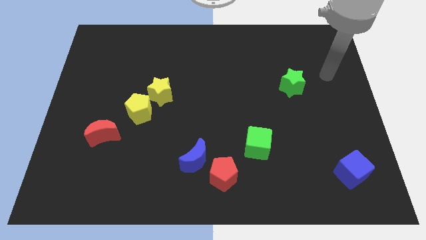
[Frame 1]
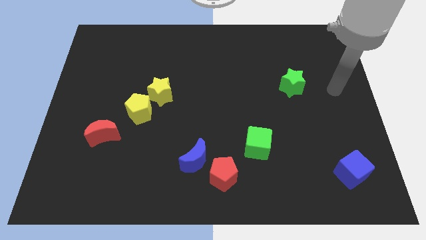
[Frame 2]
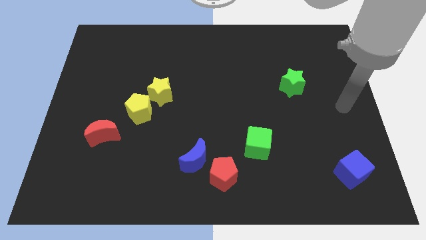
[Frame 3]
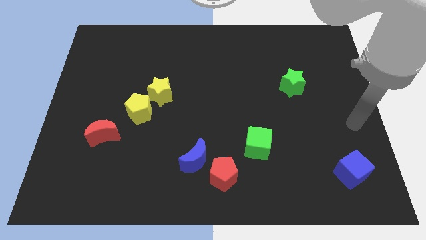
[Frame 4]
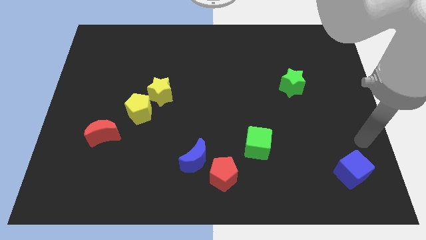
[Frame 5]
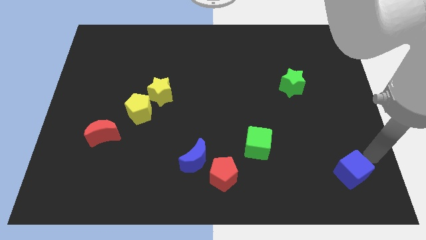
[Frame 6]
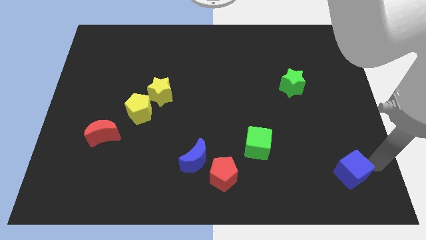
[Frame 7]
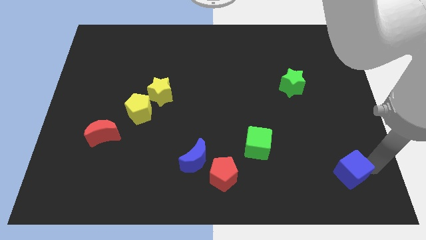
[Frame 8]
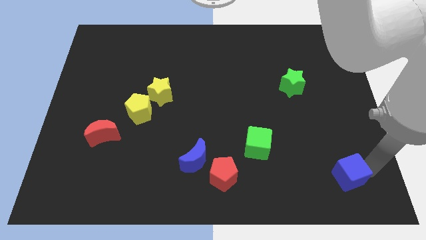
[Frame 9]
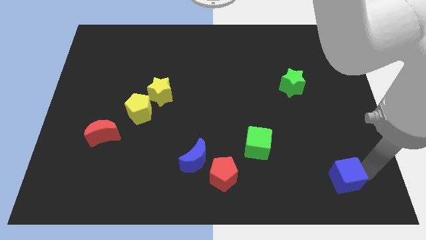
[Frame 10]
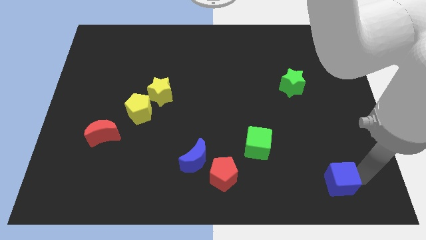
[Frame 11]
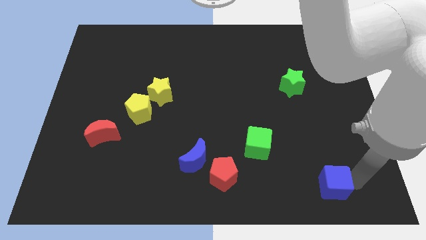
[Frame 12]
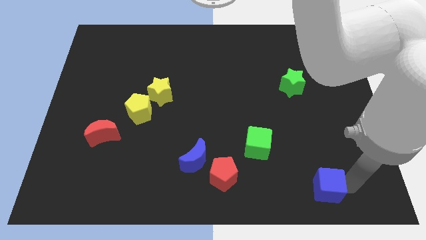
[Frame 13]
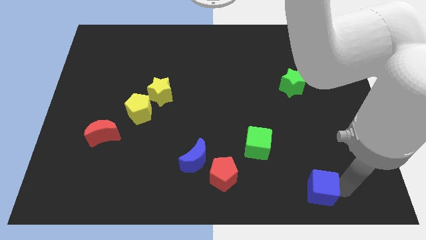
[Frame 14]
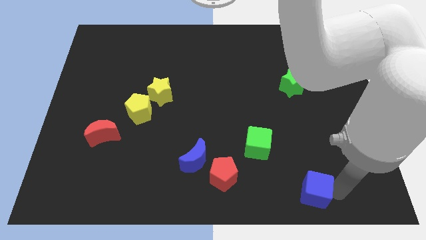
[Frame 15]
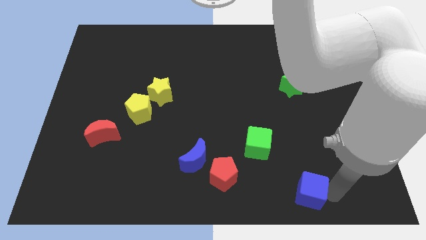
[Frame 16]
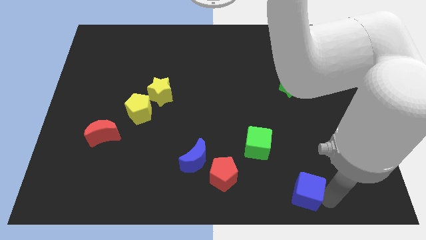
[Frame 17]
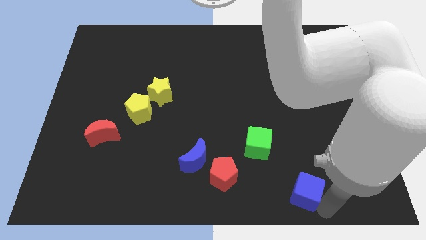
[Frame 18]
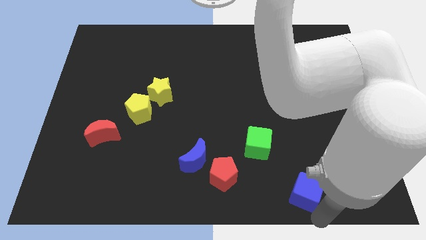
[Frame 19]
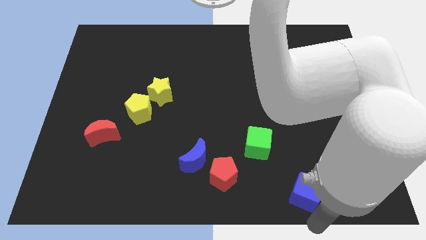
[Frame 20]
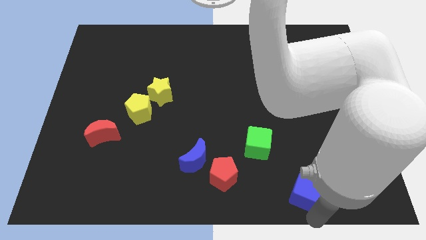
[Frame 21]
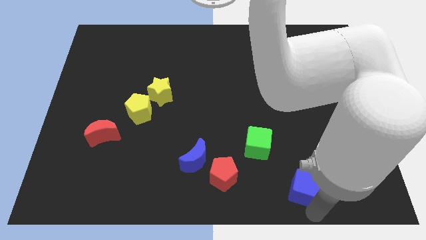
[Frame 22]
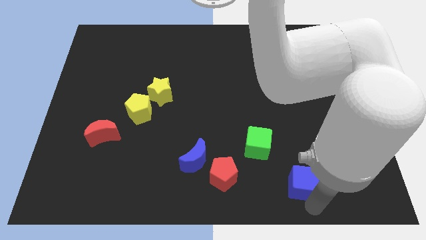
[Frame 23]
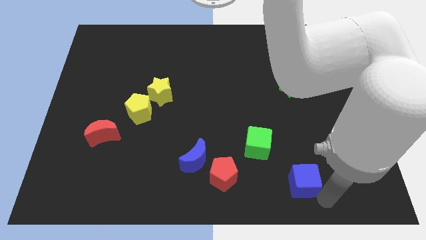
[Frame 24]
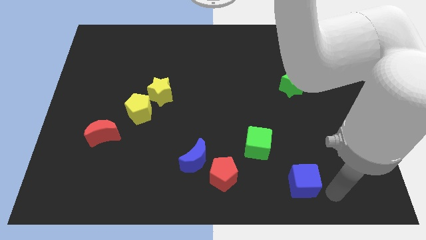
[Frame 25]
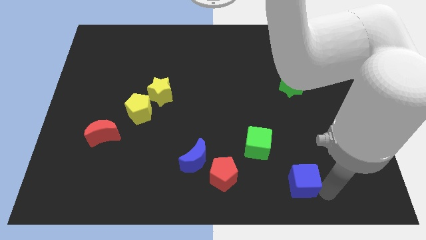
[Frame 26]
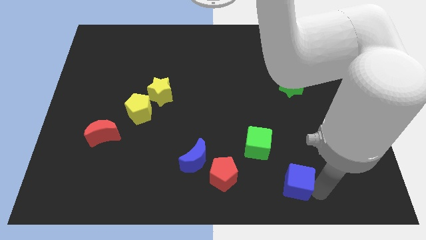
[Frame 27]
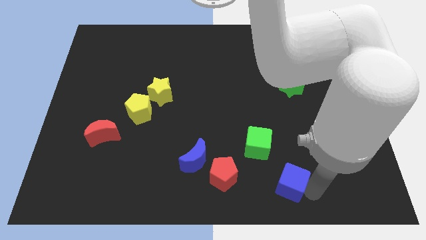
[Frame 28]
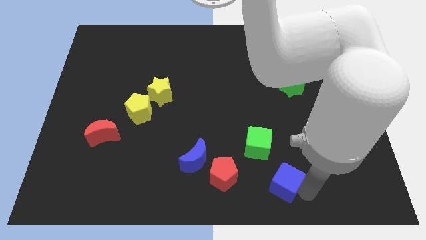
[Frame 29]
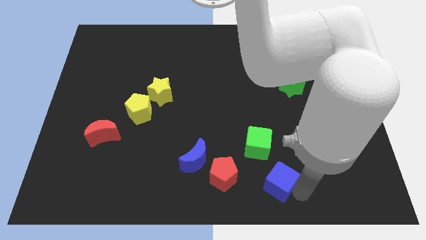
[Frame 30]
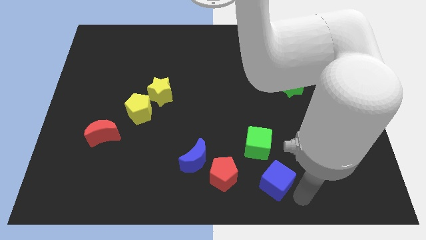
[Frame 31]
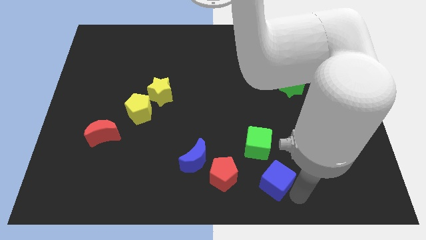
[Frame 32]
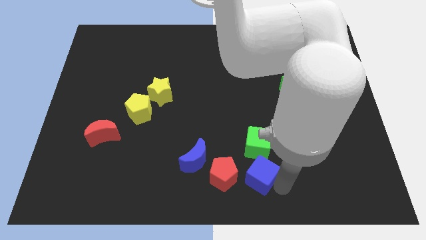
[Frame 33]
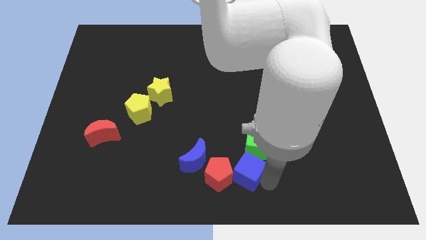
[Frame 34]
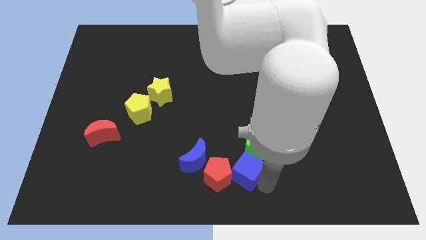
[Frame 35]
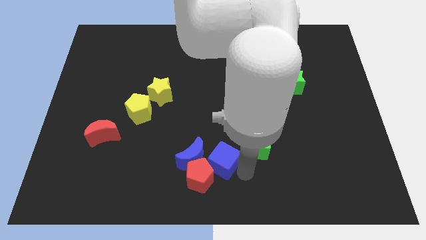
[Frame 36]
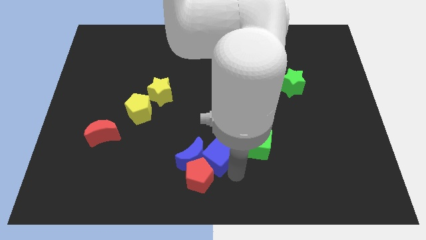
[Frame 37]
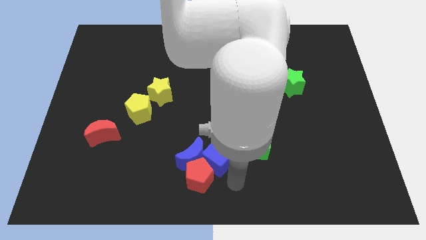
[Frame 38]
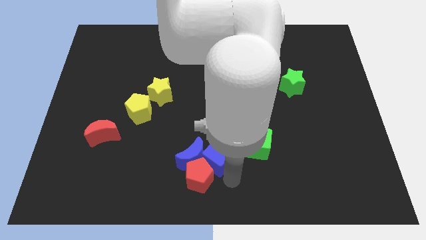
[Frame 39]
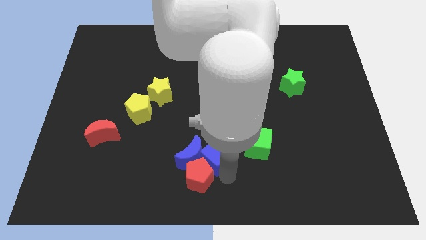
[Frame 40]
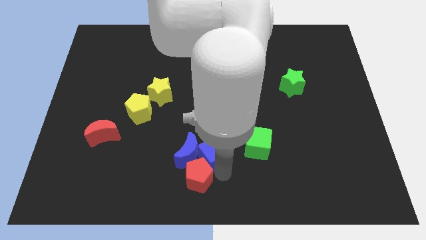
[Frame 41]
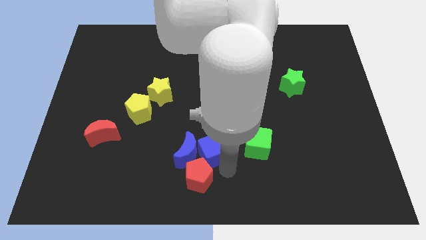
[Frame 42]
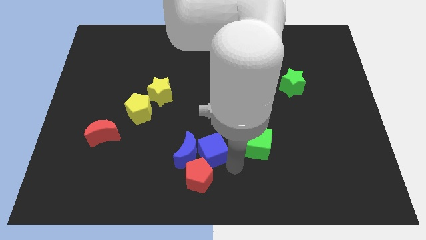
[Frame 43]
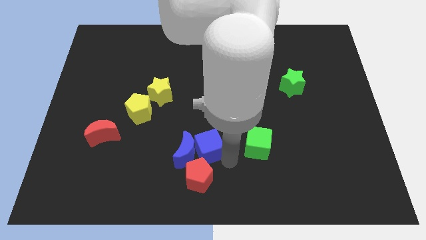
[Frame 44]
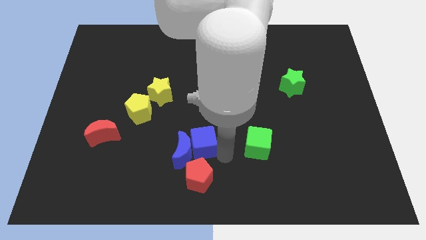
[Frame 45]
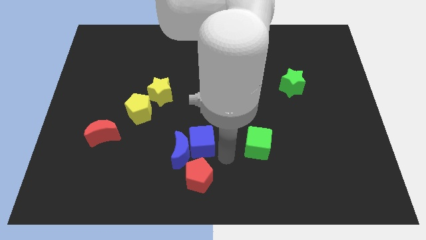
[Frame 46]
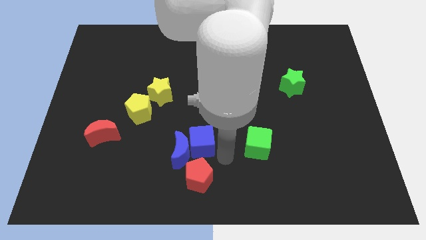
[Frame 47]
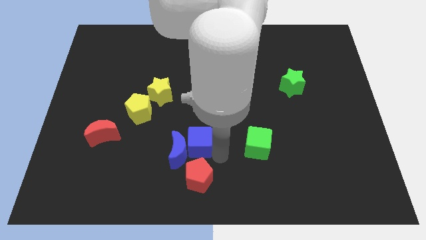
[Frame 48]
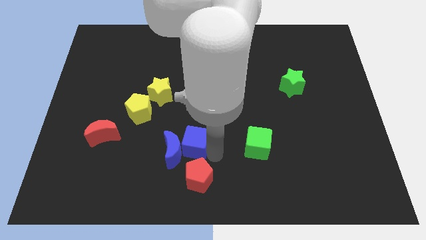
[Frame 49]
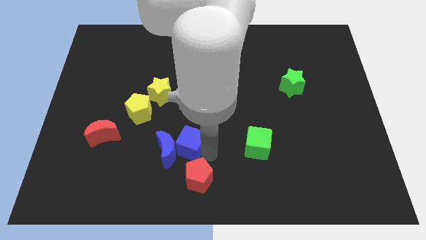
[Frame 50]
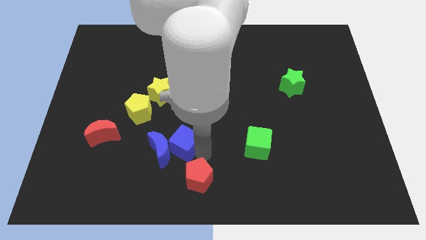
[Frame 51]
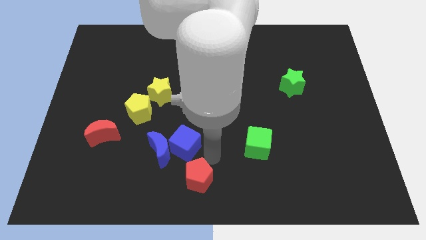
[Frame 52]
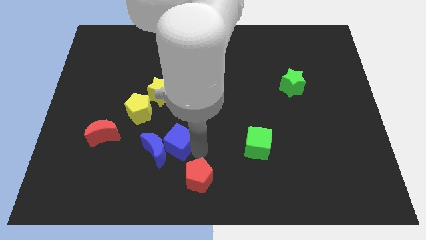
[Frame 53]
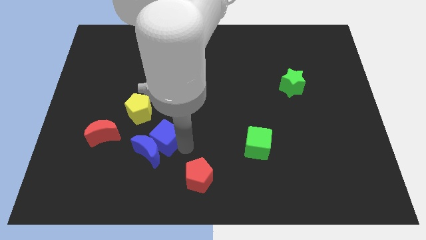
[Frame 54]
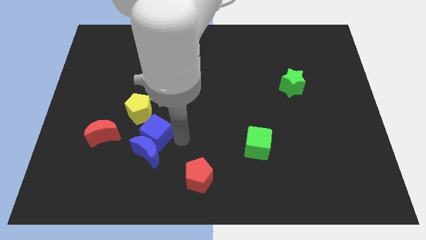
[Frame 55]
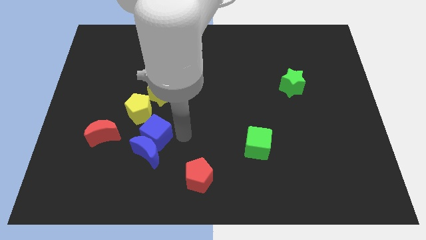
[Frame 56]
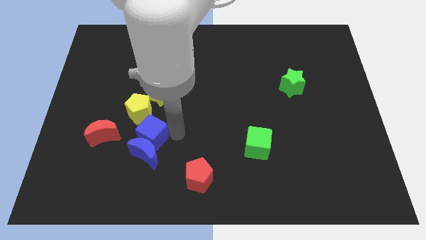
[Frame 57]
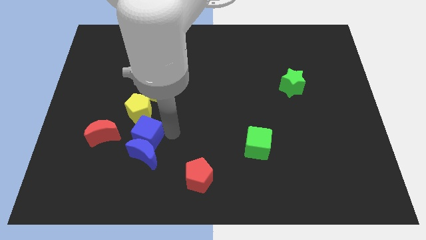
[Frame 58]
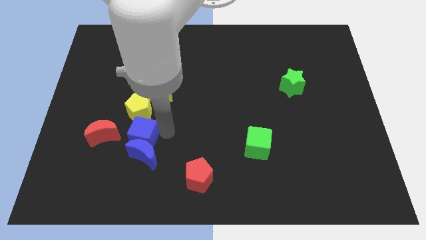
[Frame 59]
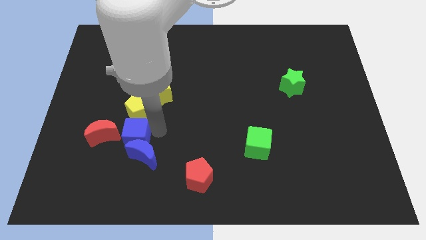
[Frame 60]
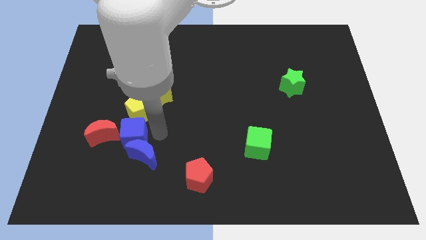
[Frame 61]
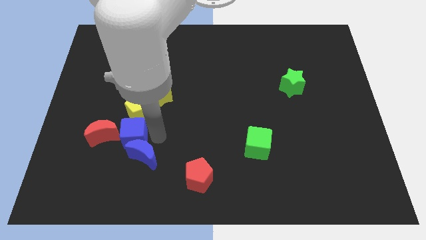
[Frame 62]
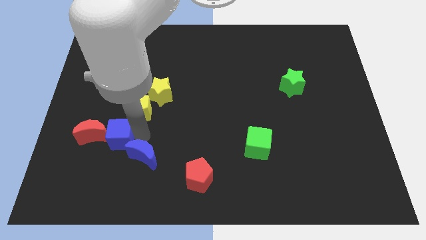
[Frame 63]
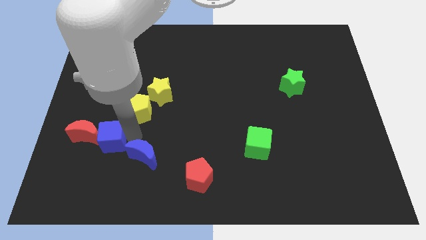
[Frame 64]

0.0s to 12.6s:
move the blue cube to the red moon

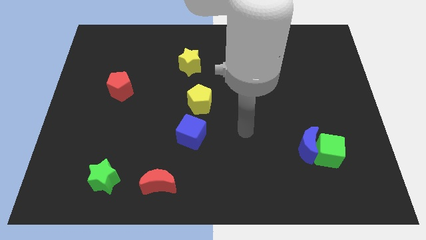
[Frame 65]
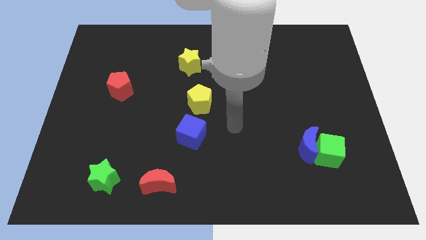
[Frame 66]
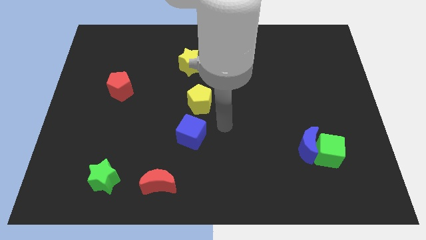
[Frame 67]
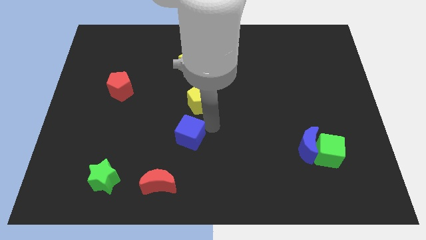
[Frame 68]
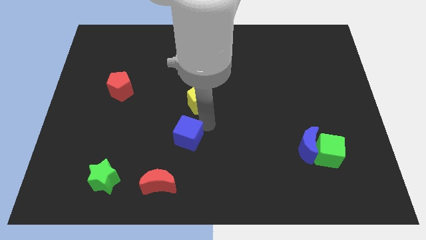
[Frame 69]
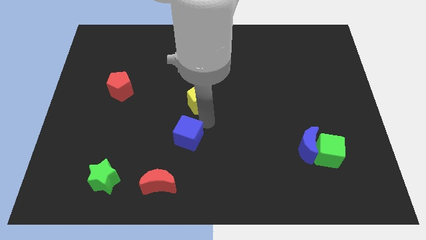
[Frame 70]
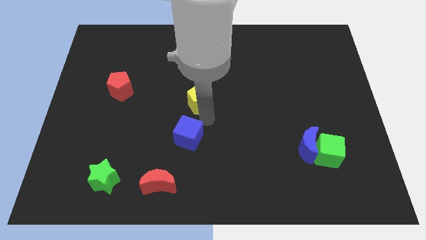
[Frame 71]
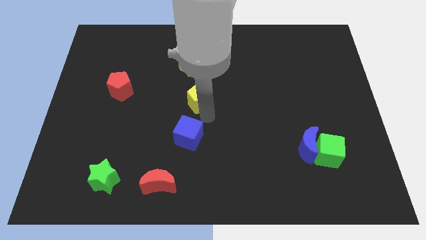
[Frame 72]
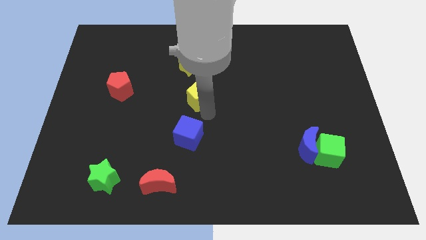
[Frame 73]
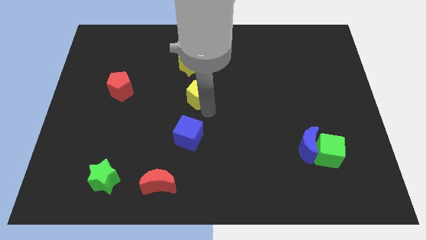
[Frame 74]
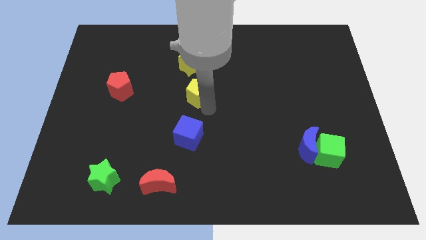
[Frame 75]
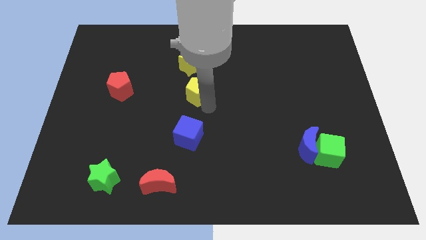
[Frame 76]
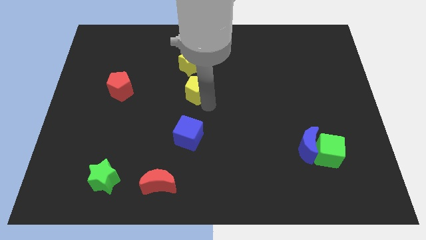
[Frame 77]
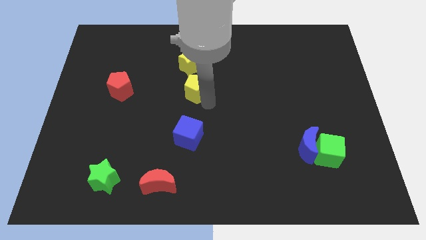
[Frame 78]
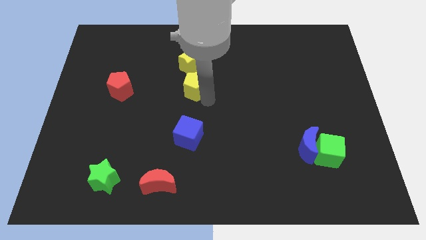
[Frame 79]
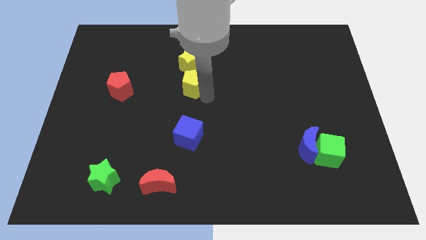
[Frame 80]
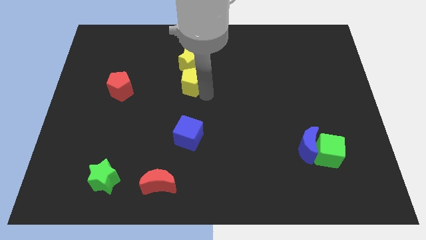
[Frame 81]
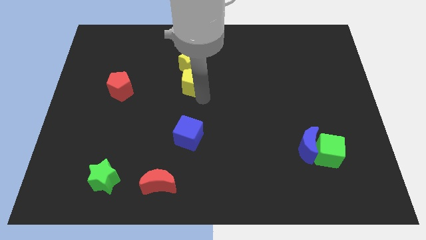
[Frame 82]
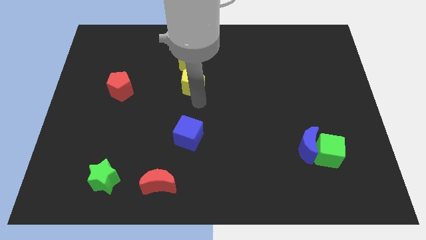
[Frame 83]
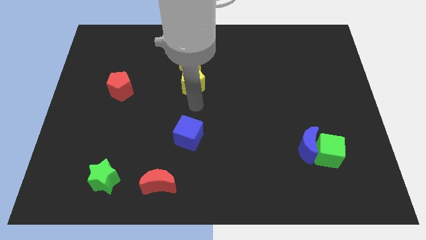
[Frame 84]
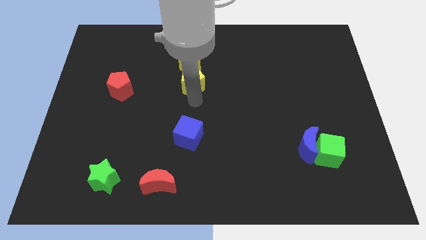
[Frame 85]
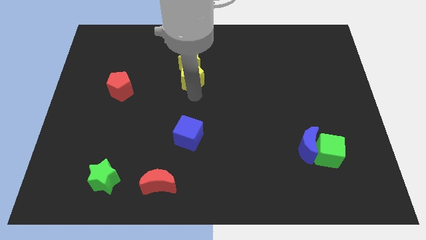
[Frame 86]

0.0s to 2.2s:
push the yellow pentagon next to the yellow star
